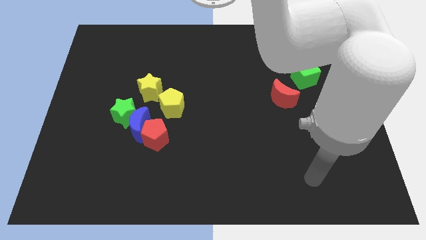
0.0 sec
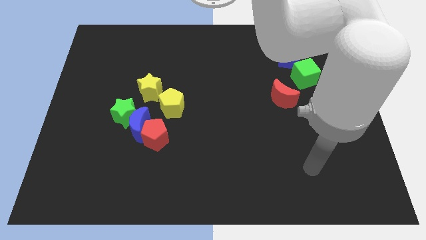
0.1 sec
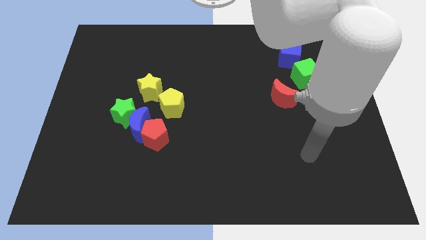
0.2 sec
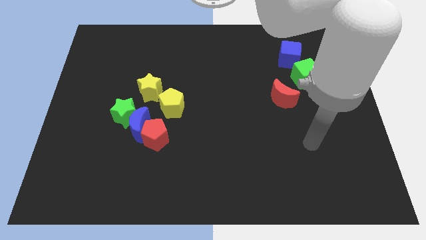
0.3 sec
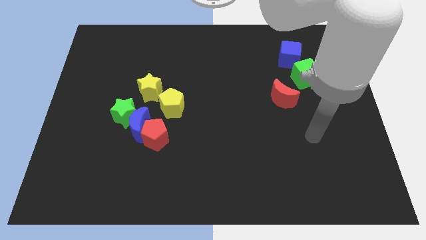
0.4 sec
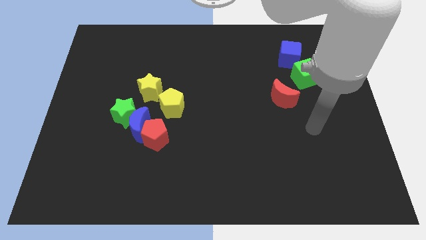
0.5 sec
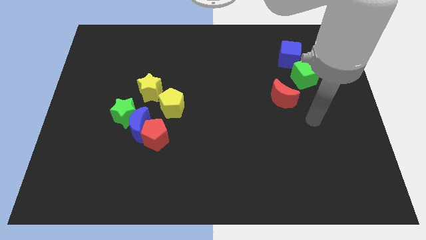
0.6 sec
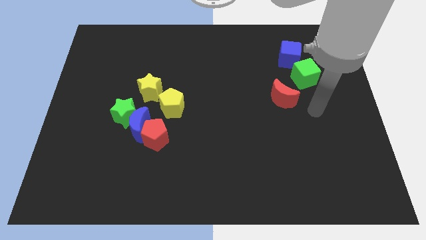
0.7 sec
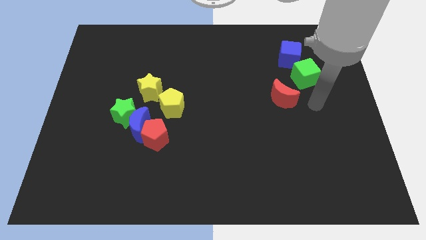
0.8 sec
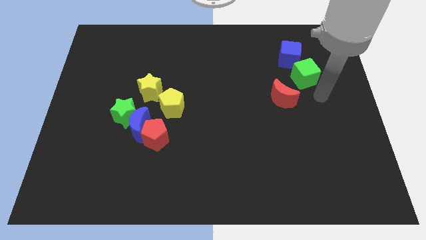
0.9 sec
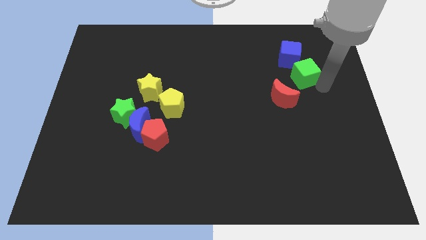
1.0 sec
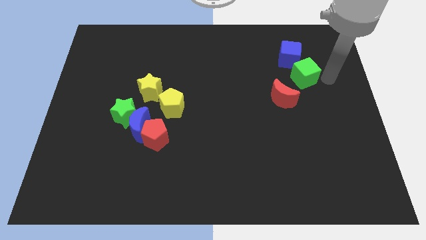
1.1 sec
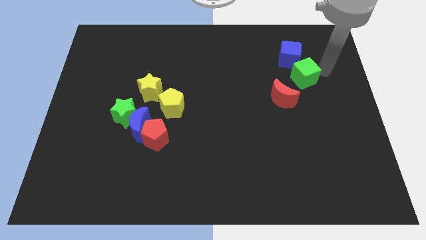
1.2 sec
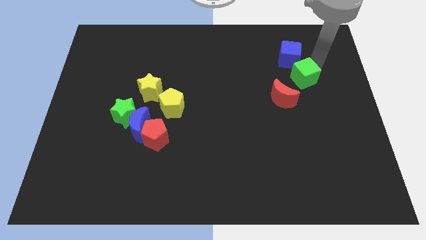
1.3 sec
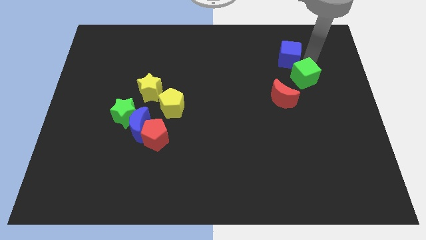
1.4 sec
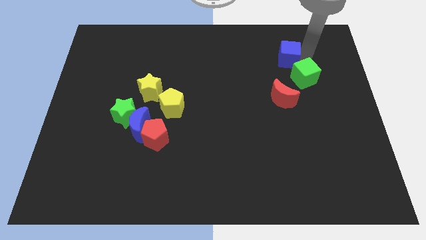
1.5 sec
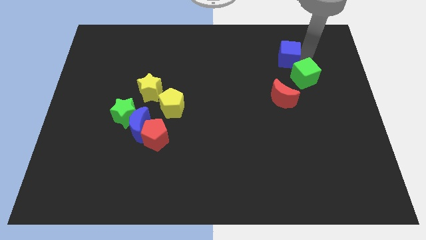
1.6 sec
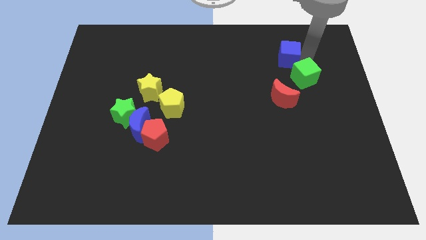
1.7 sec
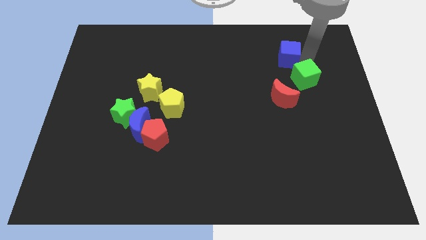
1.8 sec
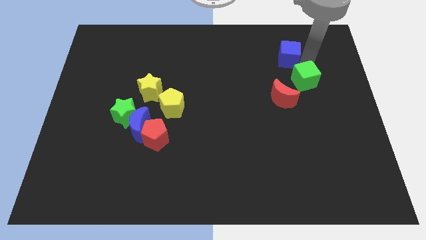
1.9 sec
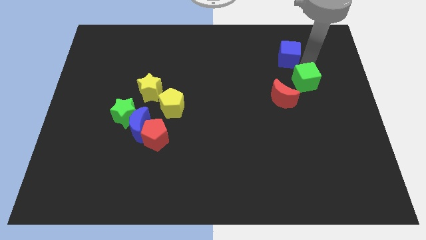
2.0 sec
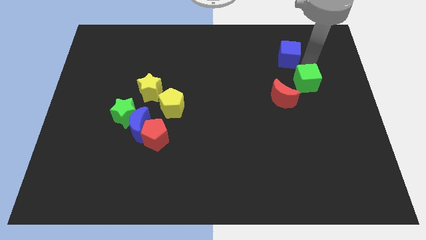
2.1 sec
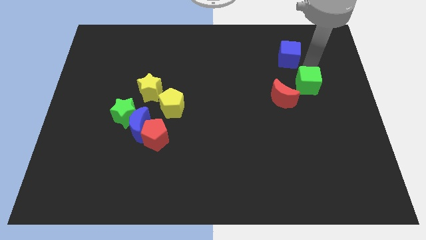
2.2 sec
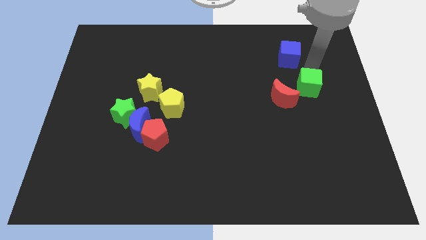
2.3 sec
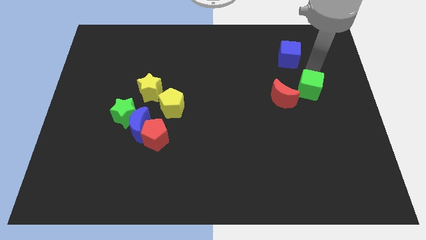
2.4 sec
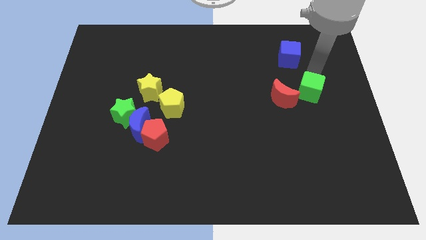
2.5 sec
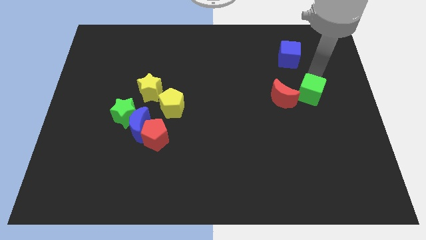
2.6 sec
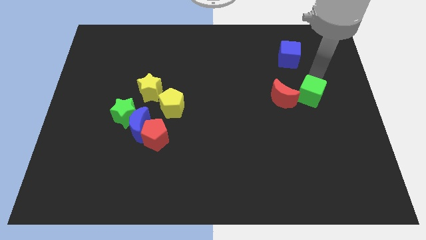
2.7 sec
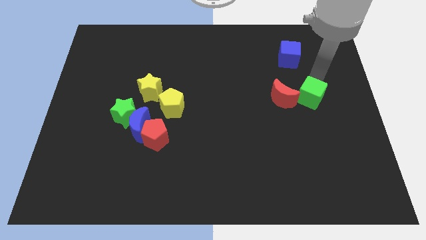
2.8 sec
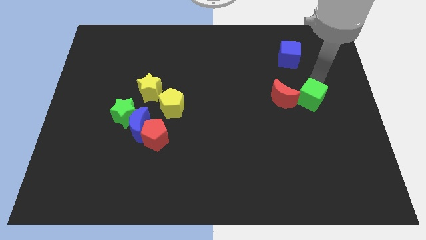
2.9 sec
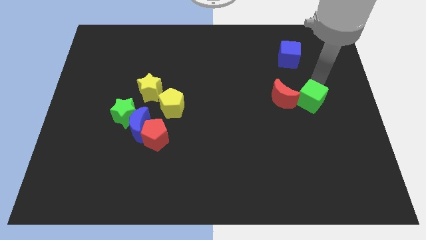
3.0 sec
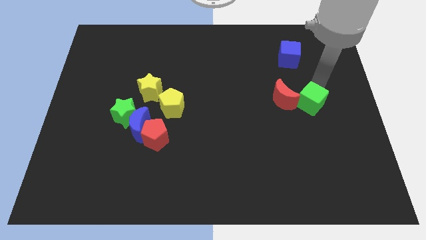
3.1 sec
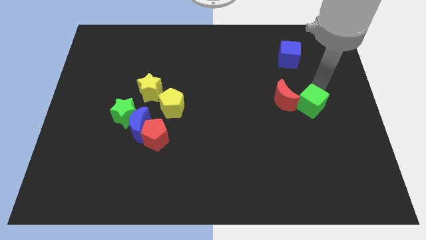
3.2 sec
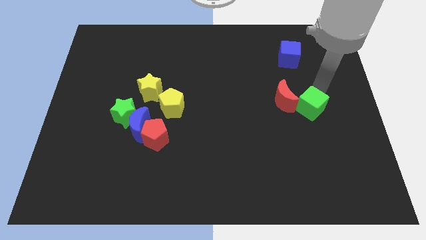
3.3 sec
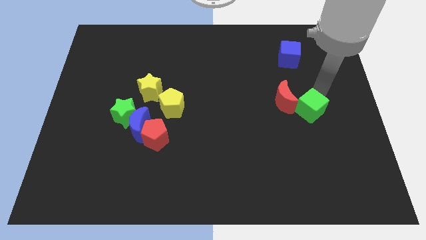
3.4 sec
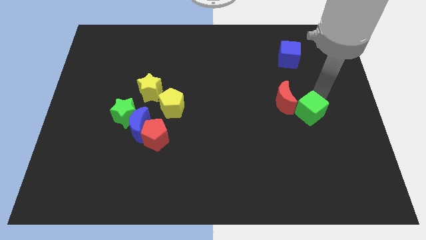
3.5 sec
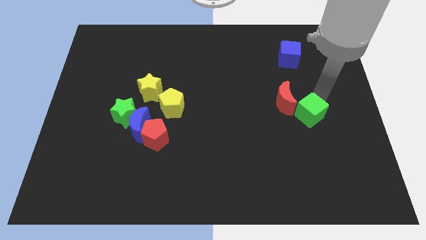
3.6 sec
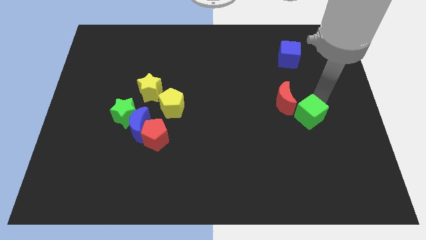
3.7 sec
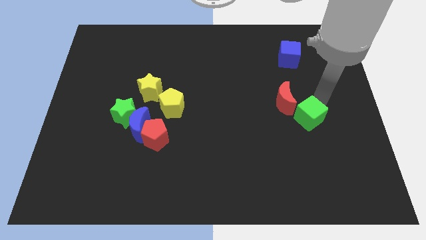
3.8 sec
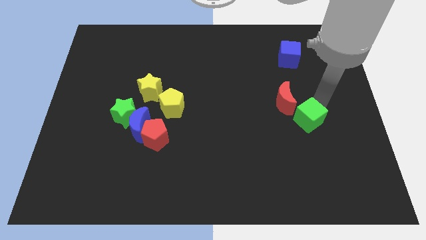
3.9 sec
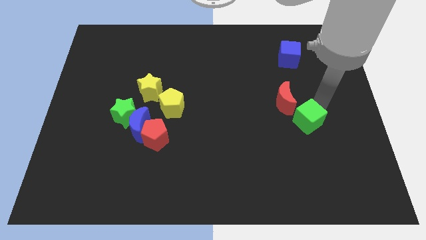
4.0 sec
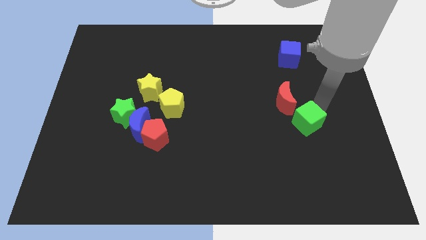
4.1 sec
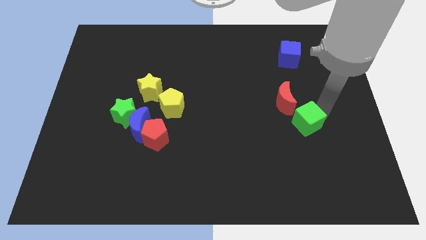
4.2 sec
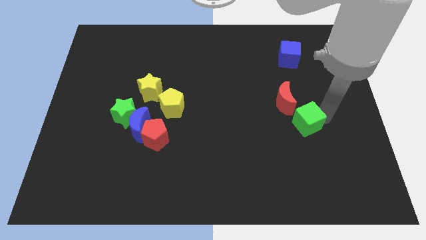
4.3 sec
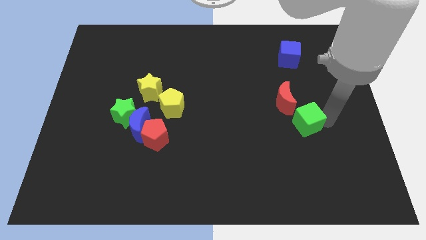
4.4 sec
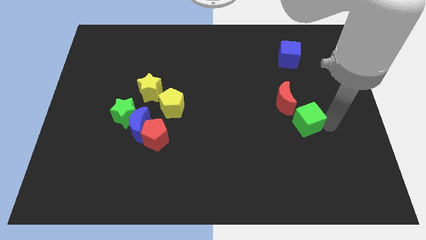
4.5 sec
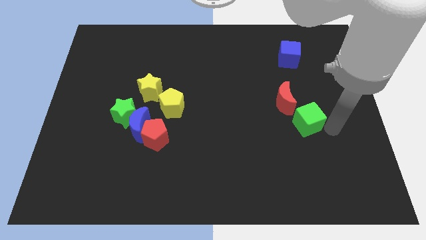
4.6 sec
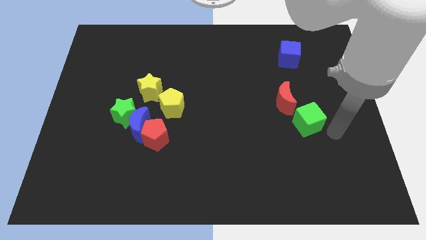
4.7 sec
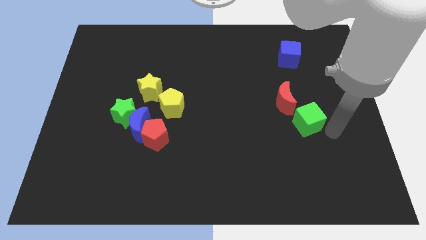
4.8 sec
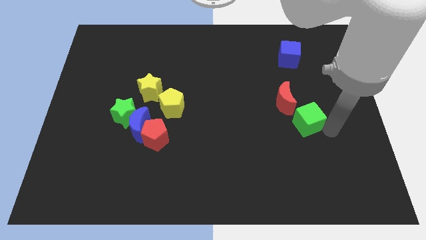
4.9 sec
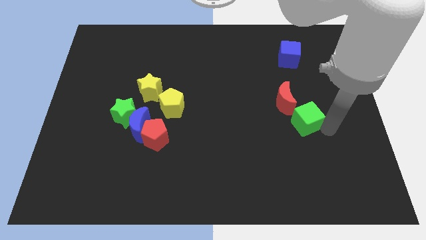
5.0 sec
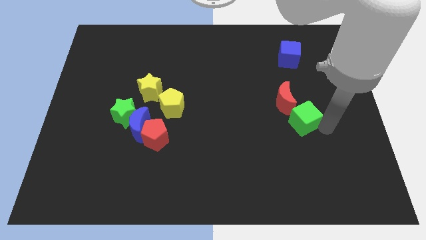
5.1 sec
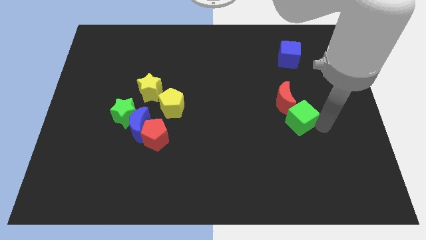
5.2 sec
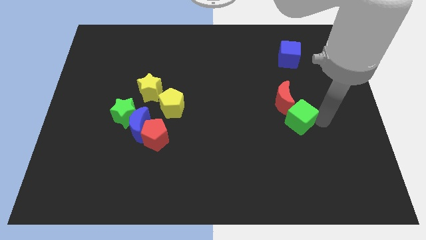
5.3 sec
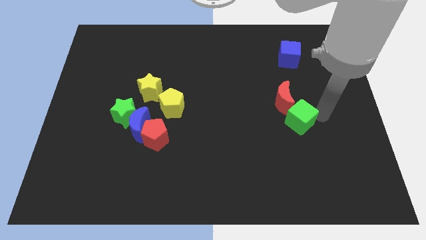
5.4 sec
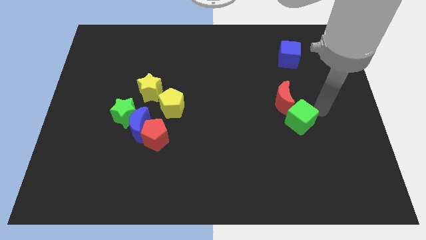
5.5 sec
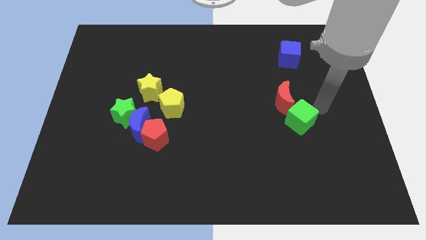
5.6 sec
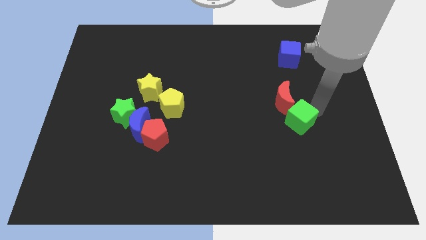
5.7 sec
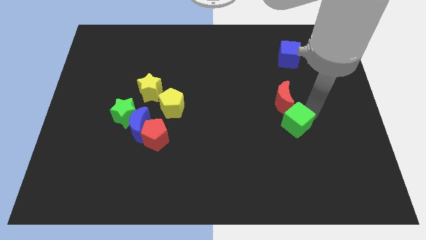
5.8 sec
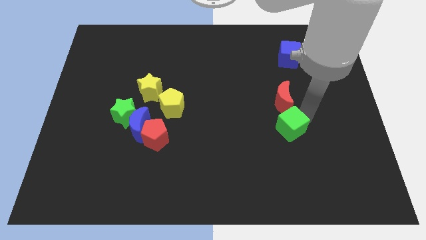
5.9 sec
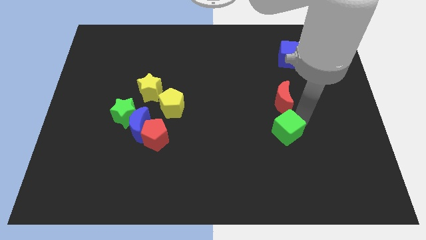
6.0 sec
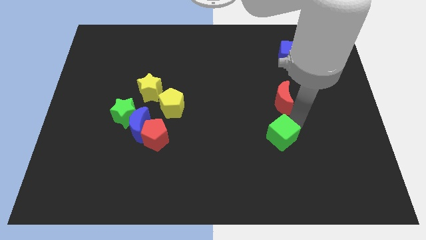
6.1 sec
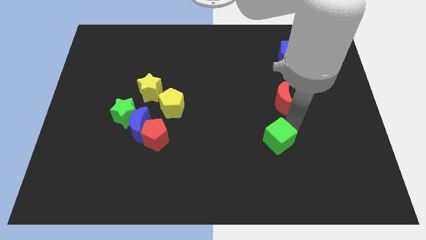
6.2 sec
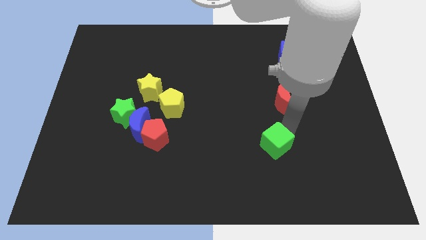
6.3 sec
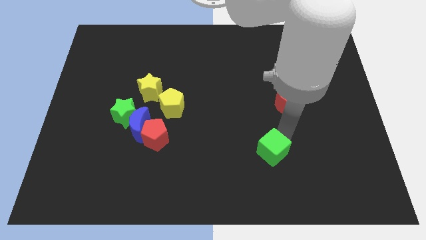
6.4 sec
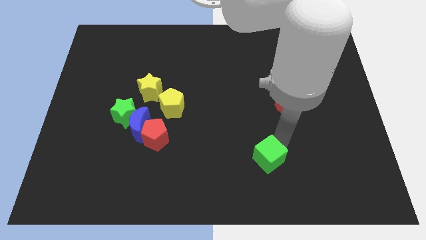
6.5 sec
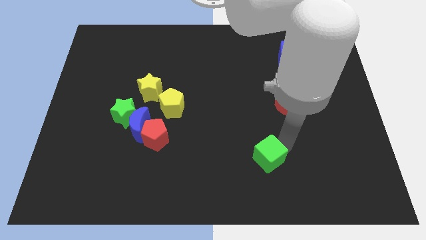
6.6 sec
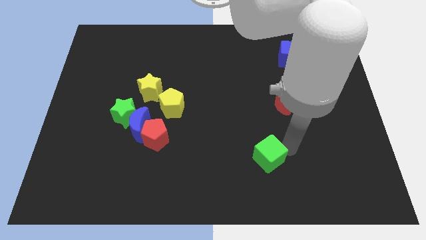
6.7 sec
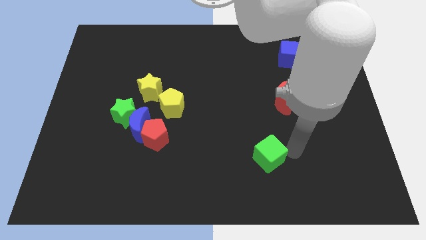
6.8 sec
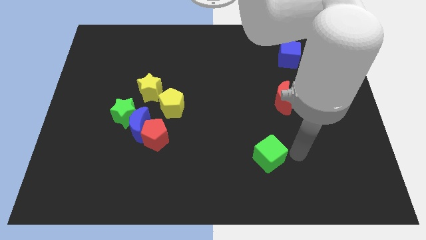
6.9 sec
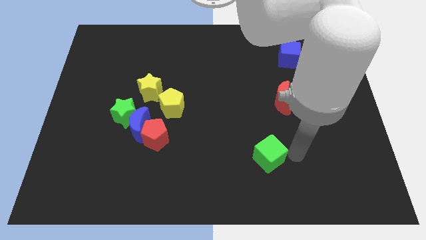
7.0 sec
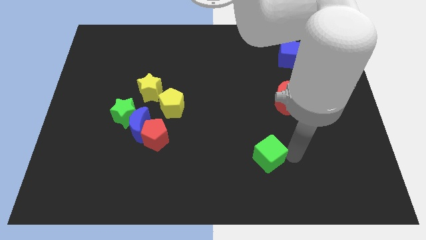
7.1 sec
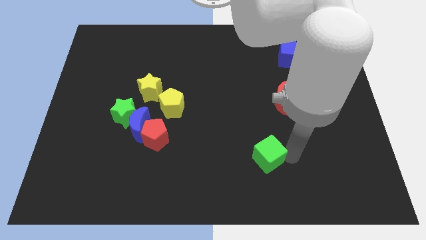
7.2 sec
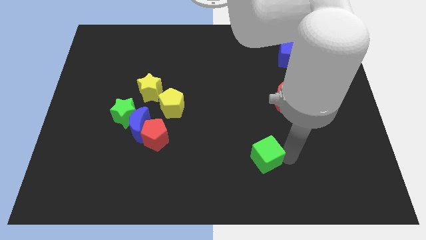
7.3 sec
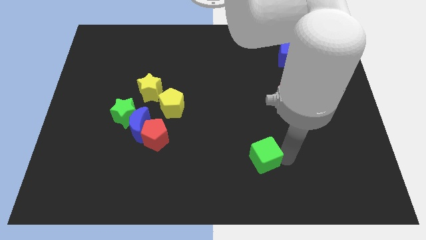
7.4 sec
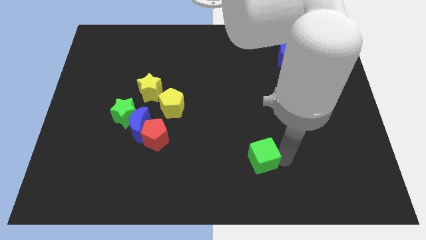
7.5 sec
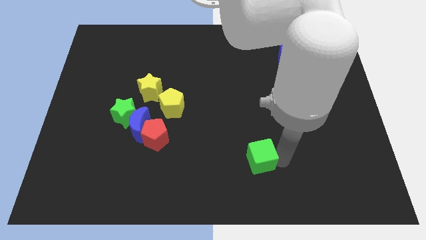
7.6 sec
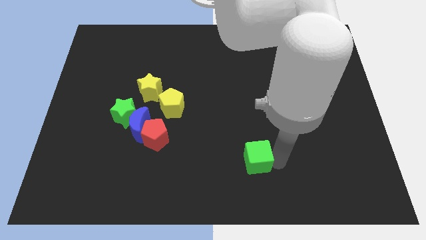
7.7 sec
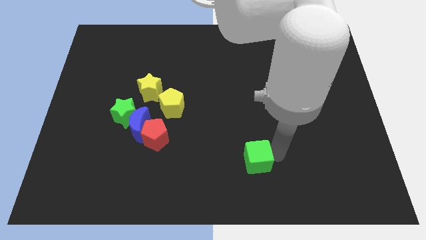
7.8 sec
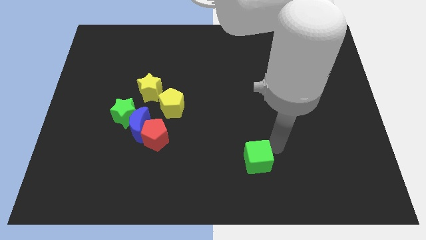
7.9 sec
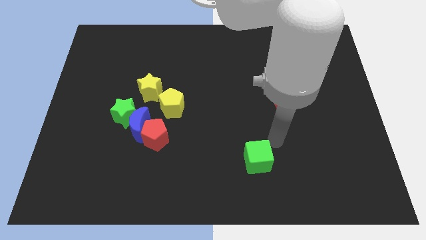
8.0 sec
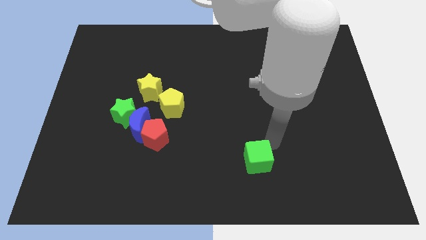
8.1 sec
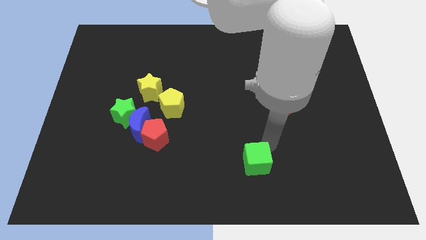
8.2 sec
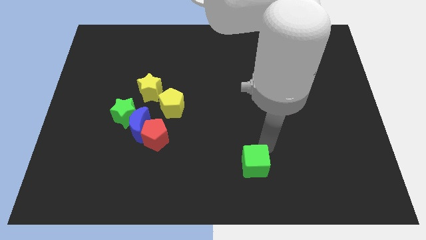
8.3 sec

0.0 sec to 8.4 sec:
put the green cube to the bottom side
